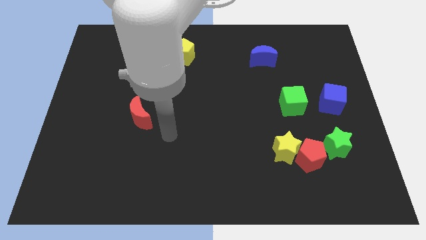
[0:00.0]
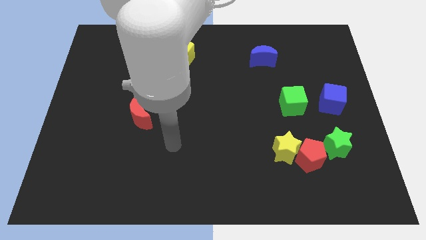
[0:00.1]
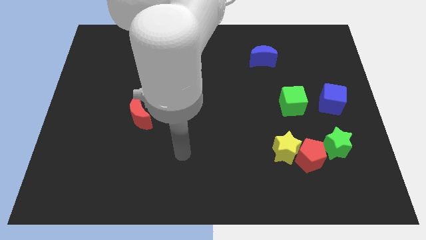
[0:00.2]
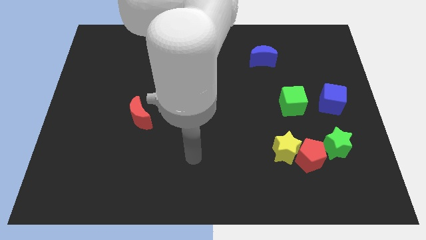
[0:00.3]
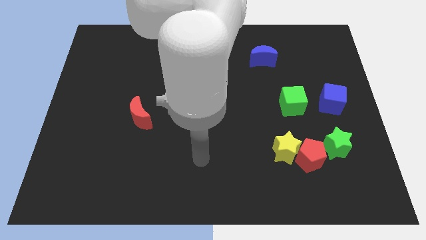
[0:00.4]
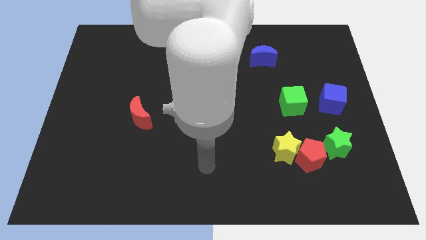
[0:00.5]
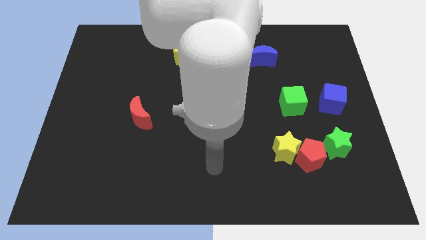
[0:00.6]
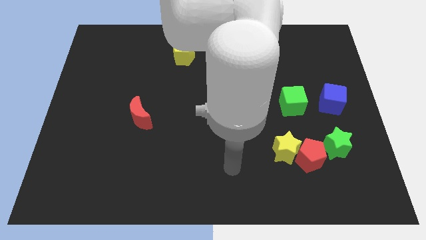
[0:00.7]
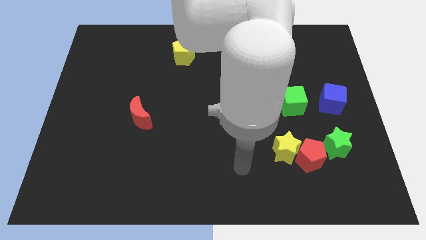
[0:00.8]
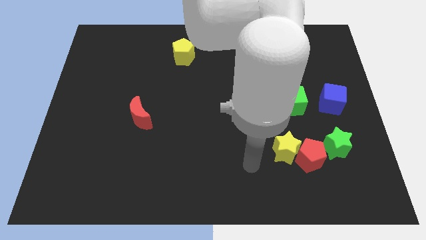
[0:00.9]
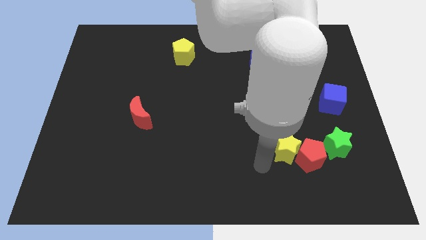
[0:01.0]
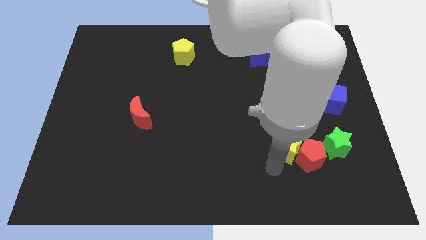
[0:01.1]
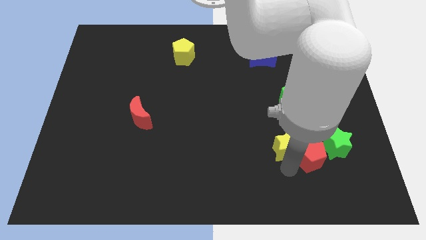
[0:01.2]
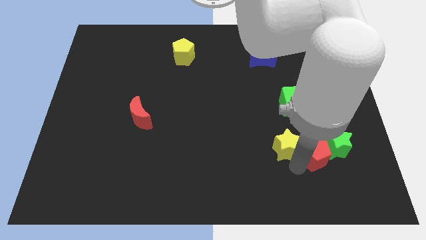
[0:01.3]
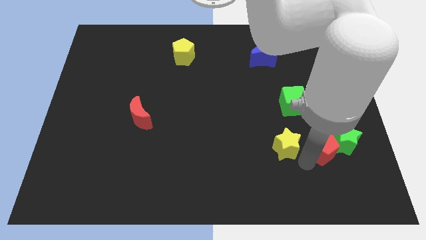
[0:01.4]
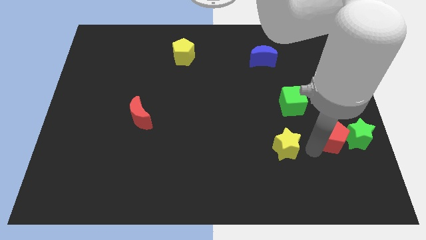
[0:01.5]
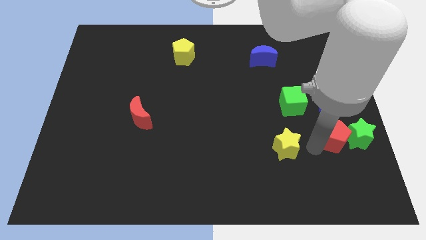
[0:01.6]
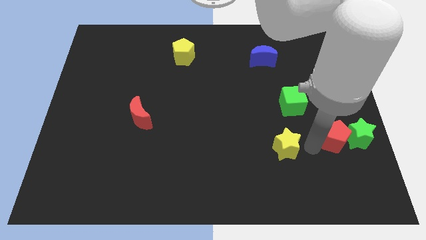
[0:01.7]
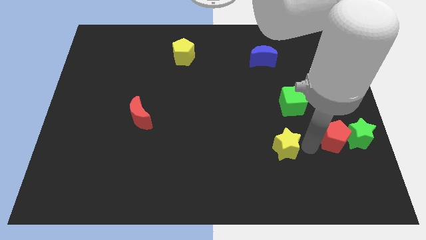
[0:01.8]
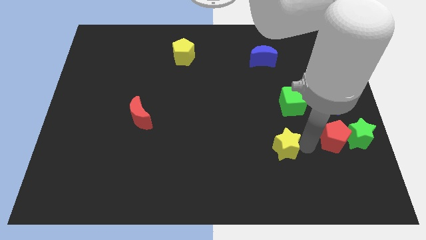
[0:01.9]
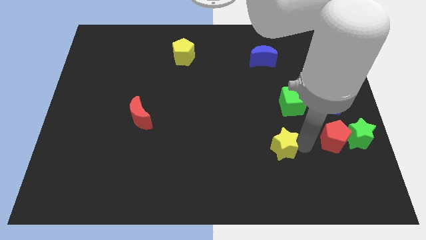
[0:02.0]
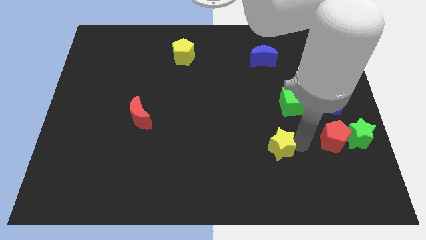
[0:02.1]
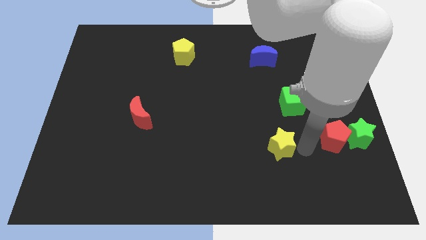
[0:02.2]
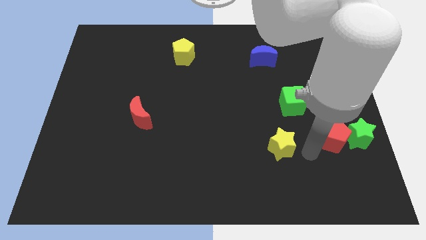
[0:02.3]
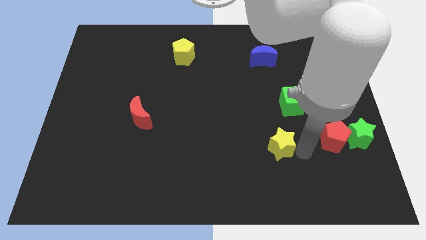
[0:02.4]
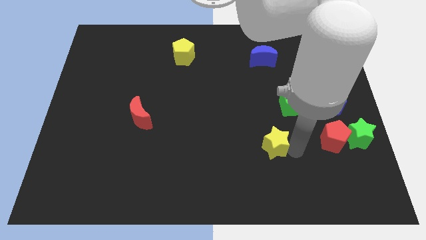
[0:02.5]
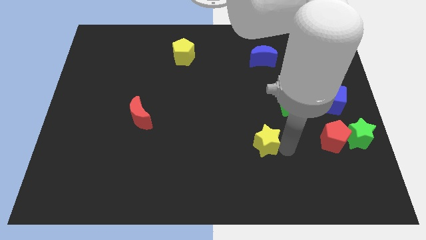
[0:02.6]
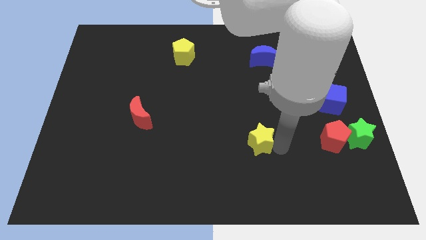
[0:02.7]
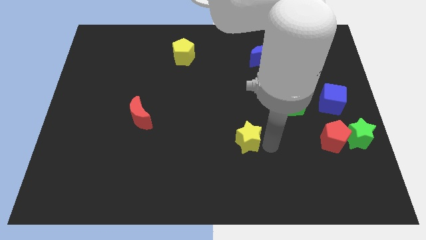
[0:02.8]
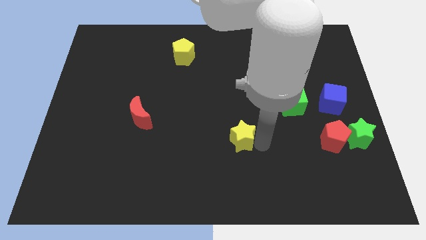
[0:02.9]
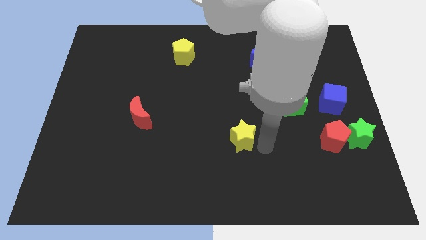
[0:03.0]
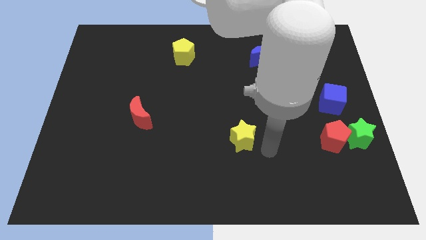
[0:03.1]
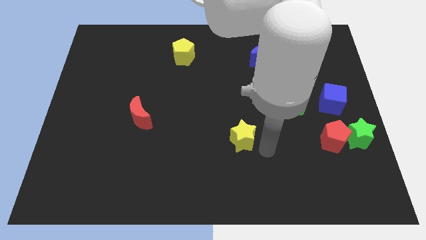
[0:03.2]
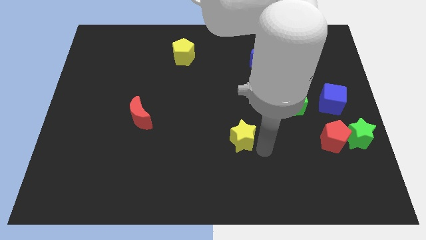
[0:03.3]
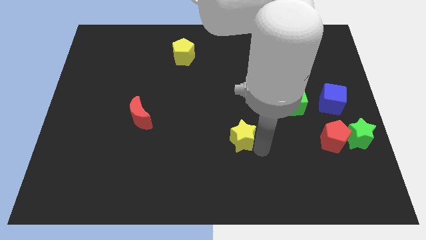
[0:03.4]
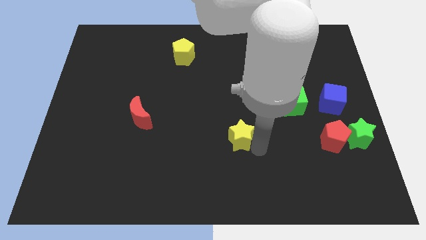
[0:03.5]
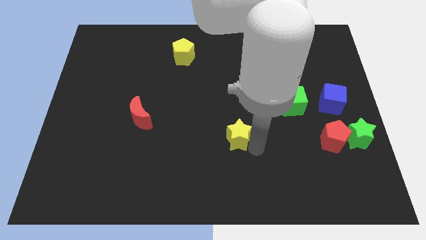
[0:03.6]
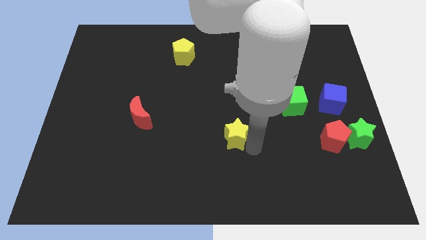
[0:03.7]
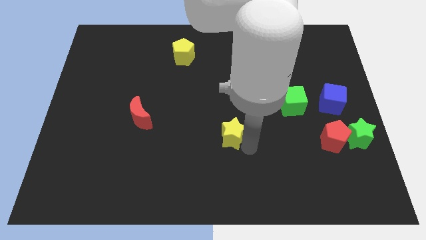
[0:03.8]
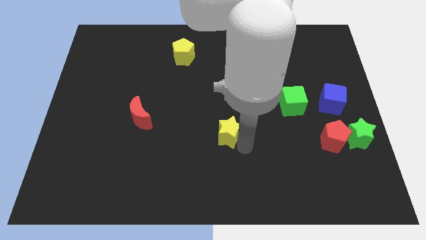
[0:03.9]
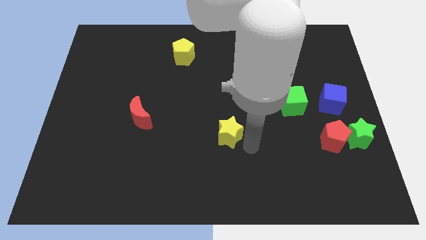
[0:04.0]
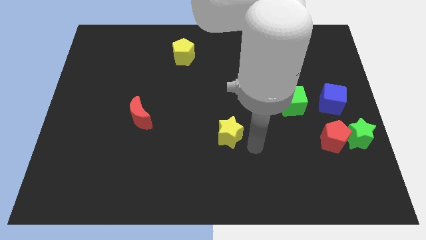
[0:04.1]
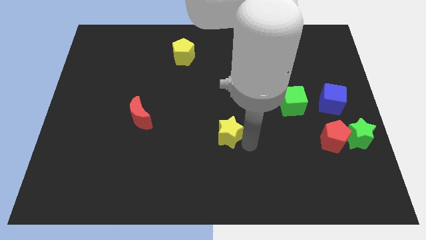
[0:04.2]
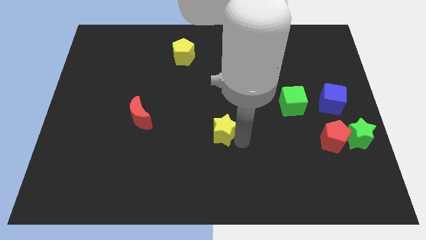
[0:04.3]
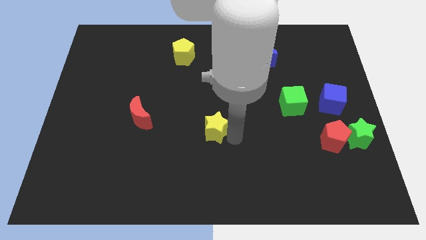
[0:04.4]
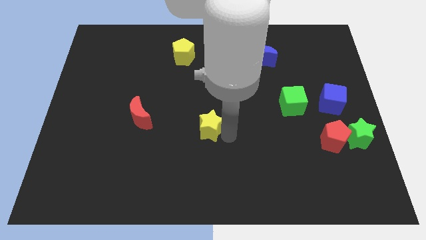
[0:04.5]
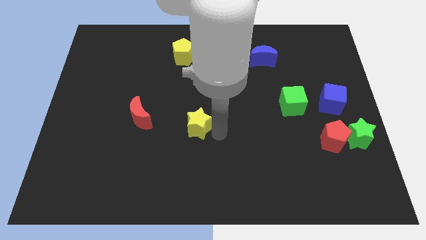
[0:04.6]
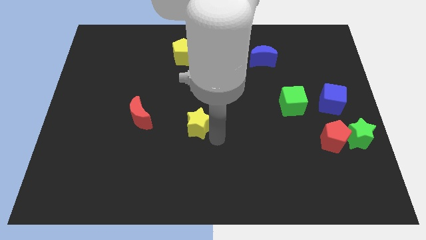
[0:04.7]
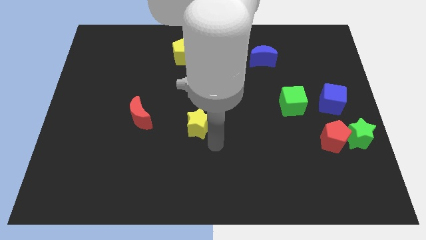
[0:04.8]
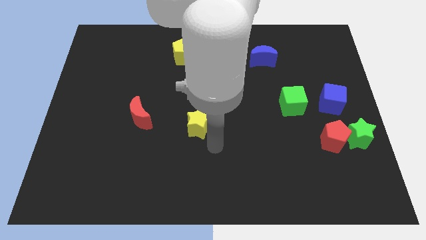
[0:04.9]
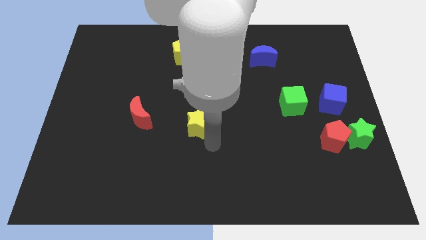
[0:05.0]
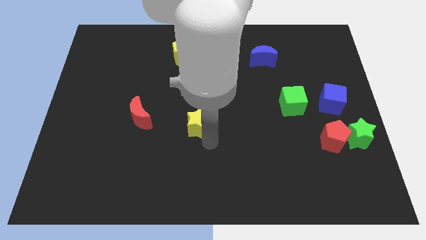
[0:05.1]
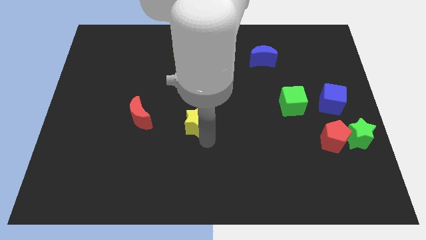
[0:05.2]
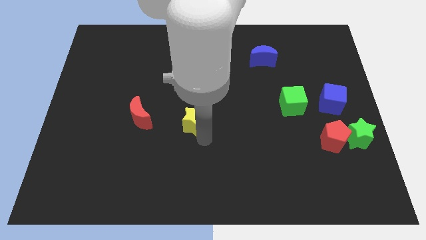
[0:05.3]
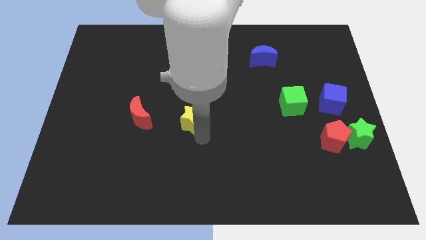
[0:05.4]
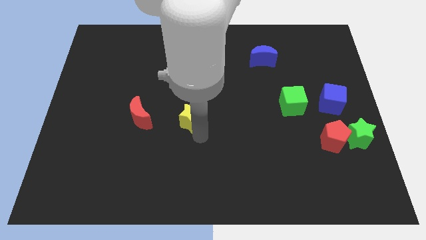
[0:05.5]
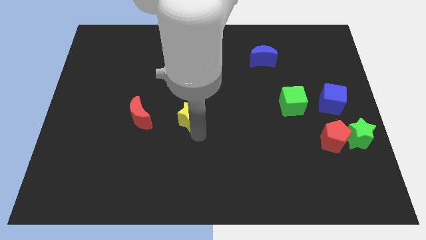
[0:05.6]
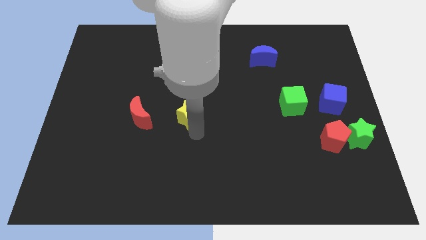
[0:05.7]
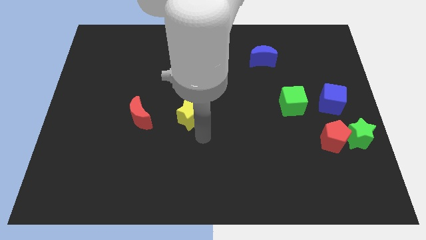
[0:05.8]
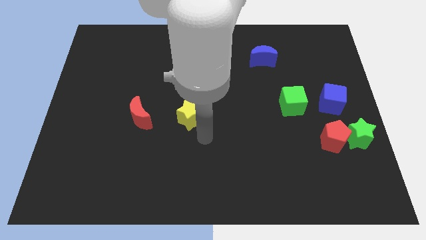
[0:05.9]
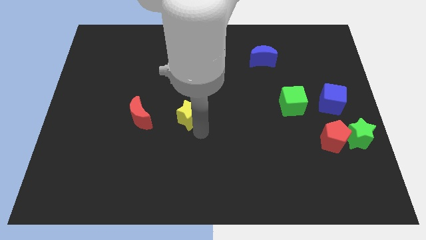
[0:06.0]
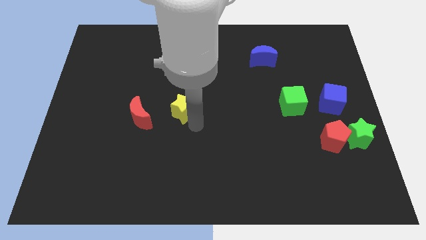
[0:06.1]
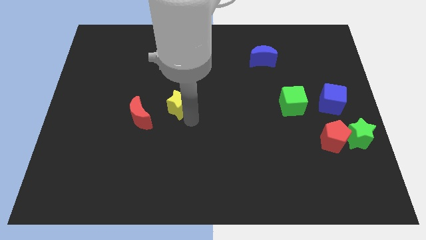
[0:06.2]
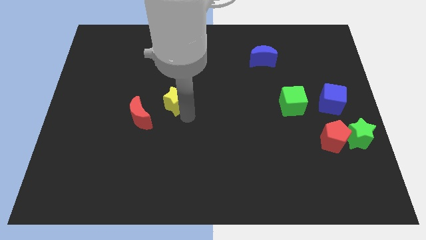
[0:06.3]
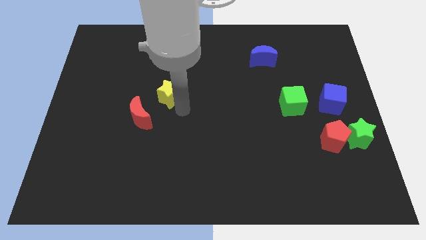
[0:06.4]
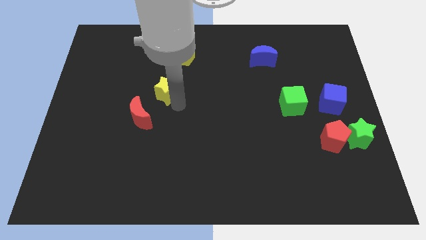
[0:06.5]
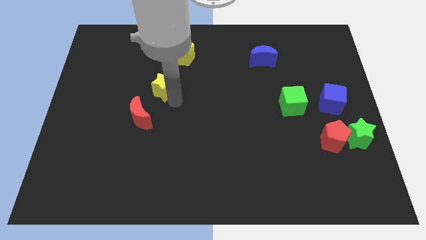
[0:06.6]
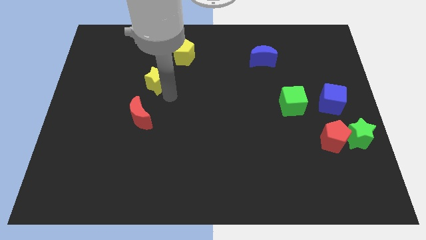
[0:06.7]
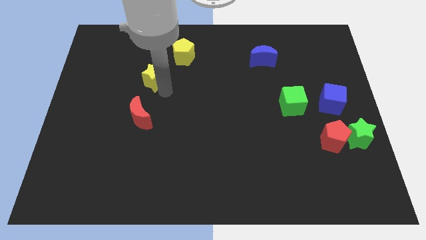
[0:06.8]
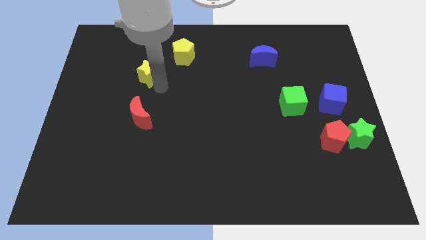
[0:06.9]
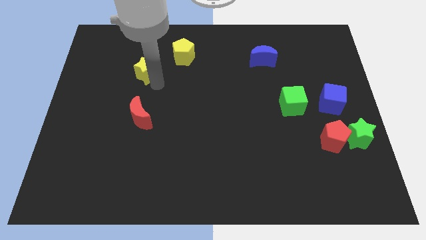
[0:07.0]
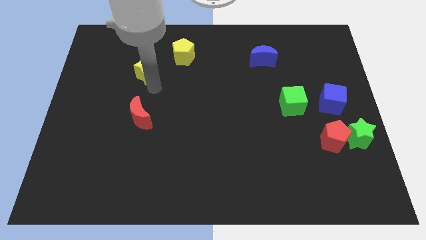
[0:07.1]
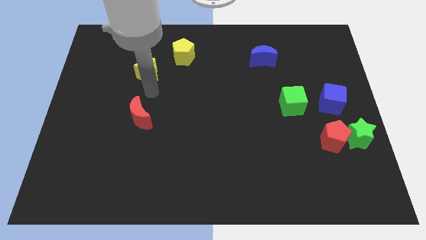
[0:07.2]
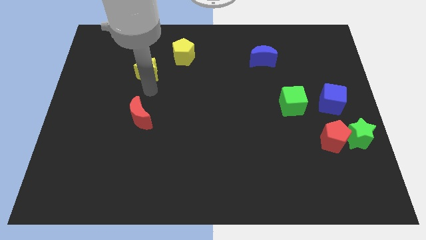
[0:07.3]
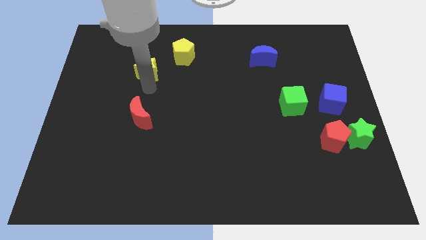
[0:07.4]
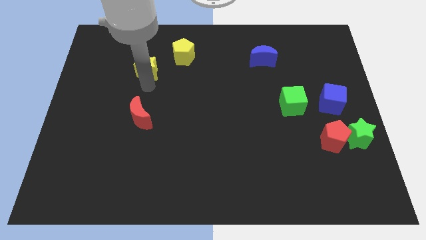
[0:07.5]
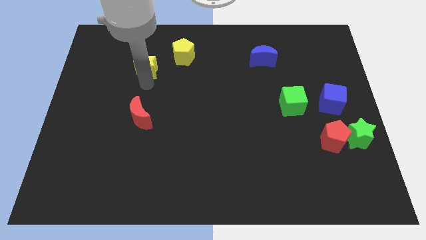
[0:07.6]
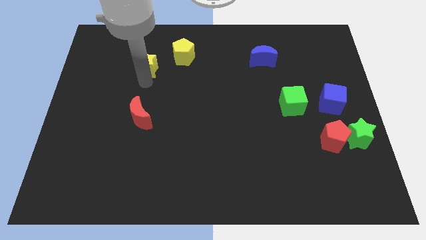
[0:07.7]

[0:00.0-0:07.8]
move the yellow star to the left of the yellow pentagon
